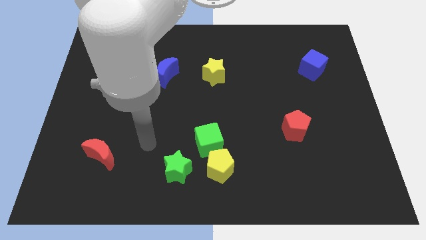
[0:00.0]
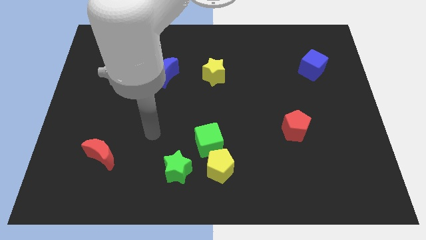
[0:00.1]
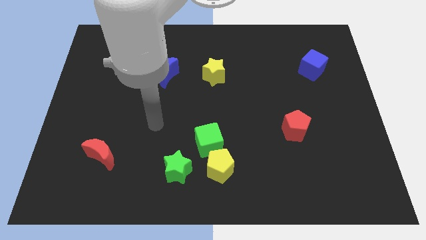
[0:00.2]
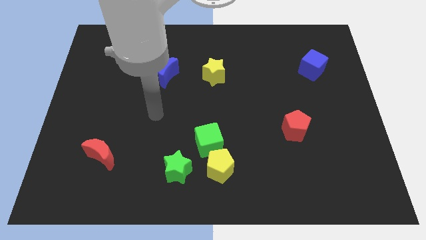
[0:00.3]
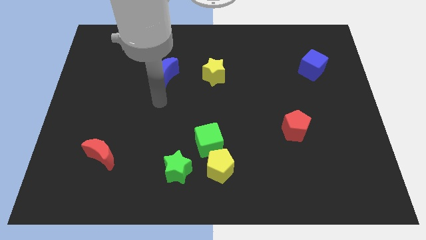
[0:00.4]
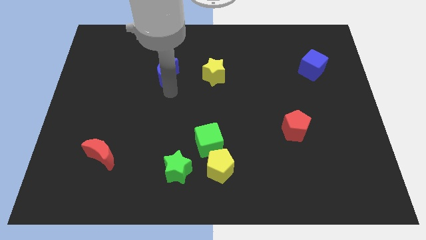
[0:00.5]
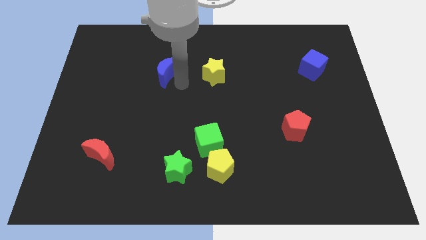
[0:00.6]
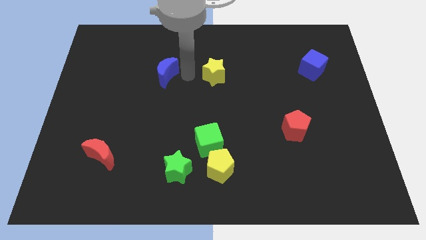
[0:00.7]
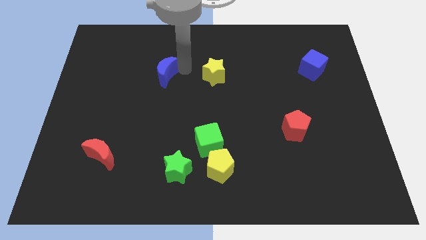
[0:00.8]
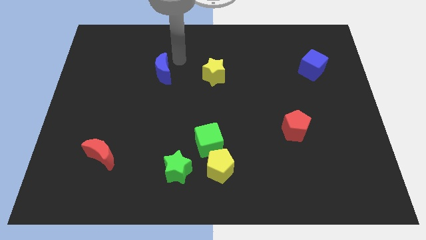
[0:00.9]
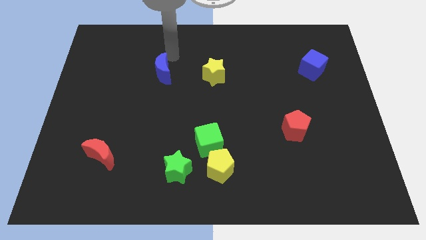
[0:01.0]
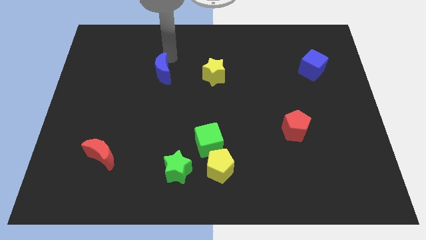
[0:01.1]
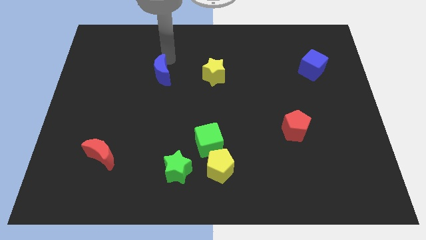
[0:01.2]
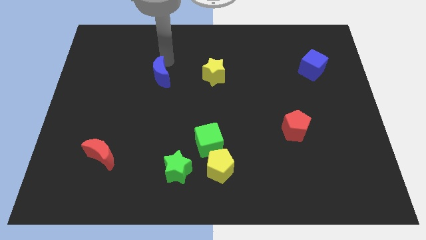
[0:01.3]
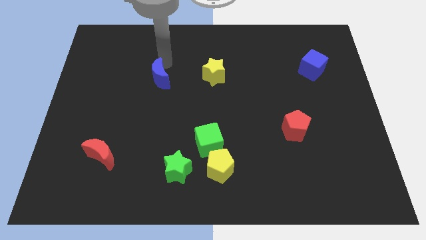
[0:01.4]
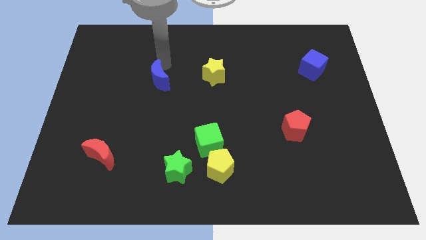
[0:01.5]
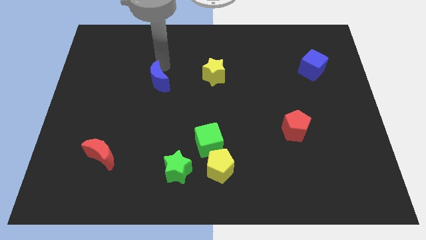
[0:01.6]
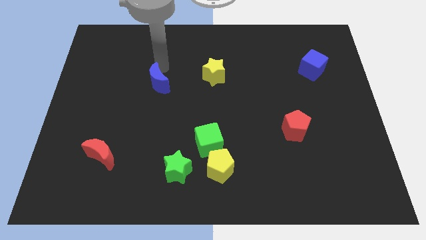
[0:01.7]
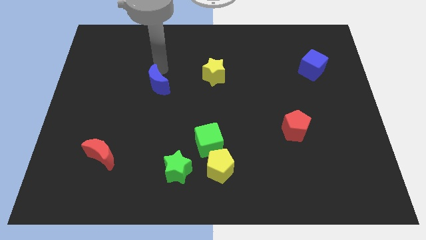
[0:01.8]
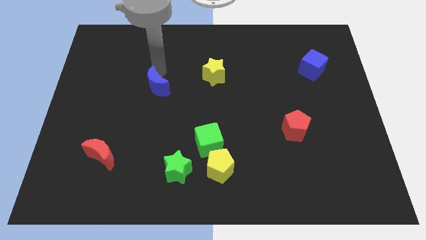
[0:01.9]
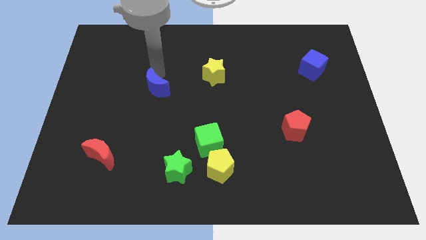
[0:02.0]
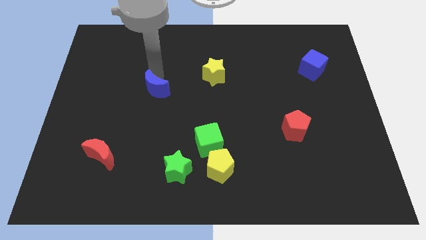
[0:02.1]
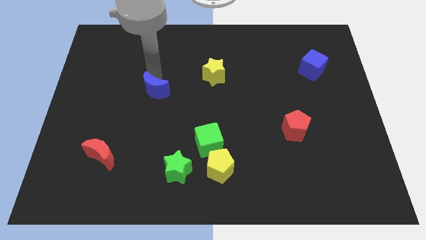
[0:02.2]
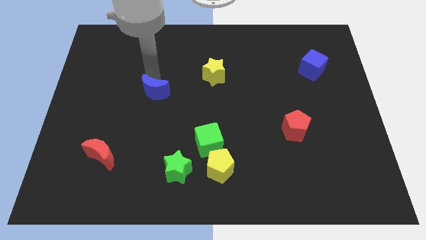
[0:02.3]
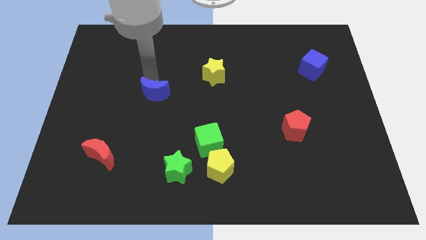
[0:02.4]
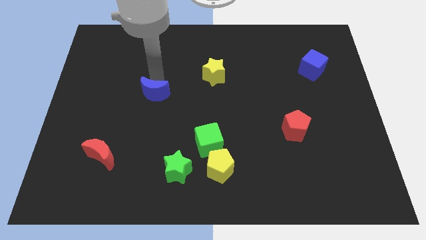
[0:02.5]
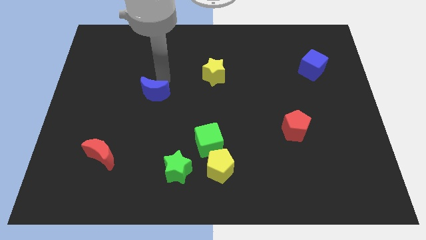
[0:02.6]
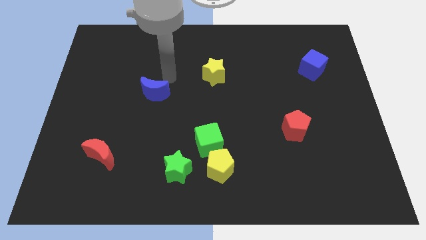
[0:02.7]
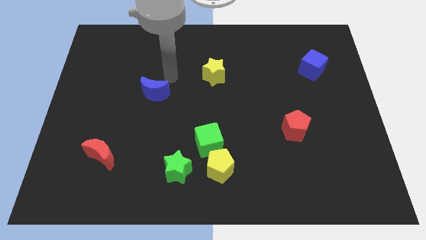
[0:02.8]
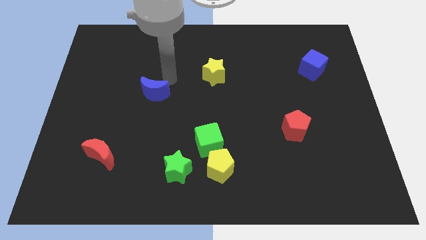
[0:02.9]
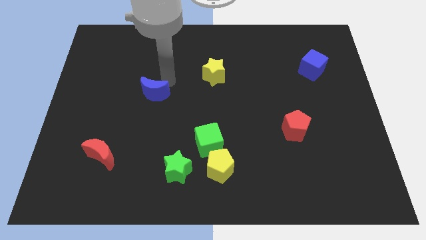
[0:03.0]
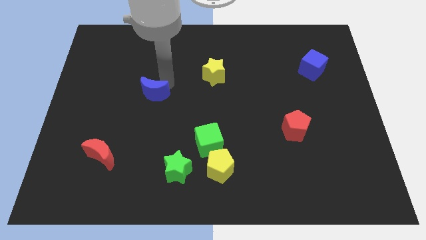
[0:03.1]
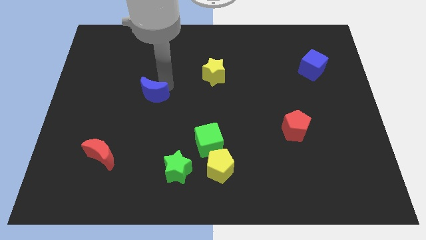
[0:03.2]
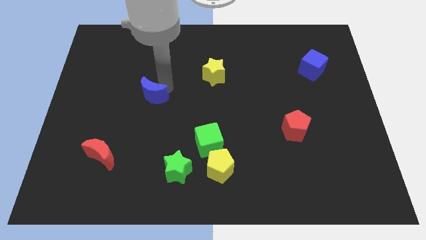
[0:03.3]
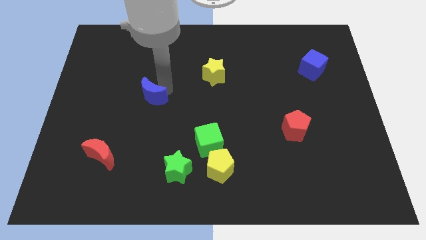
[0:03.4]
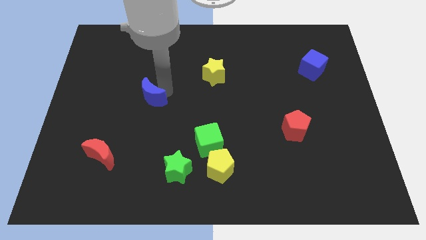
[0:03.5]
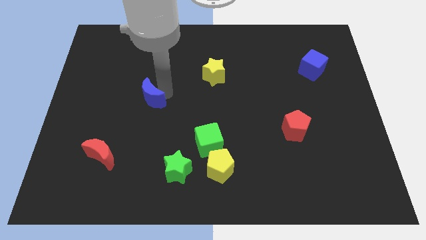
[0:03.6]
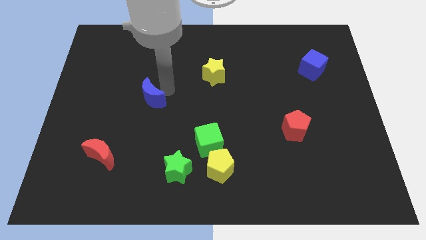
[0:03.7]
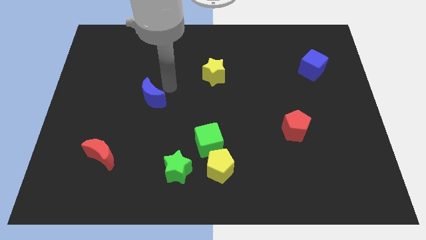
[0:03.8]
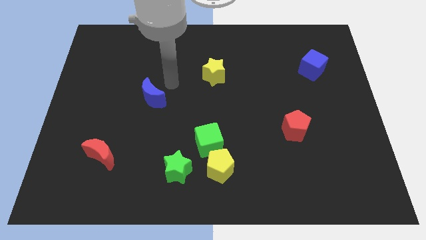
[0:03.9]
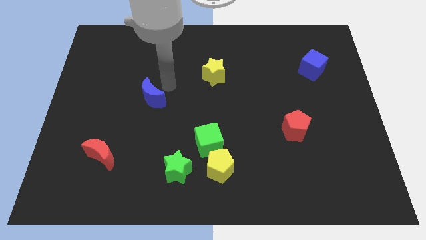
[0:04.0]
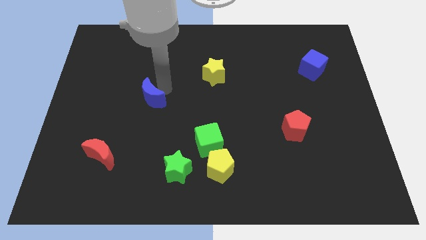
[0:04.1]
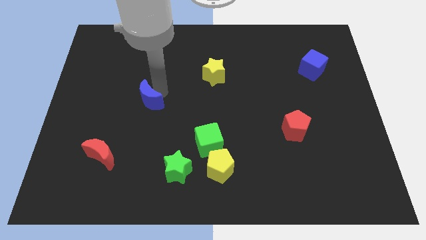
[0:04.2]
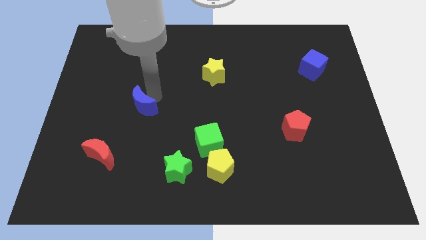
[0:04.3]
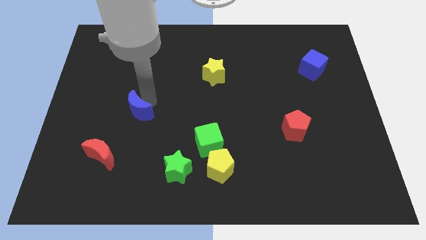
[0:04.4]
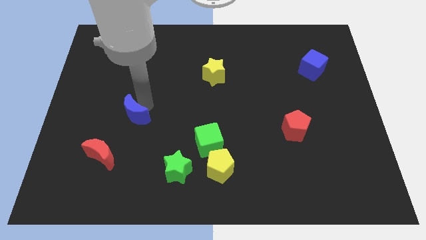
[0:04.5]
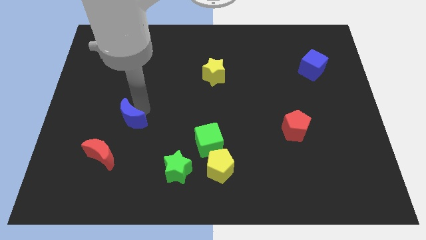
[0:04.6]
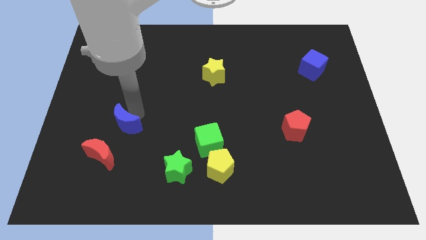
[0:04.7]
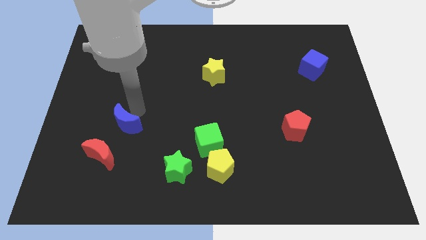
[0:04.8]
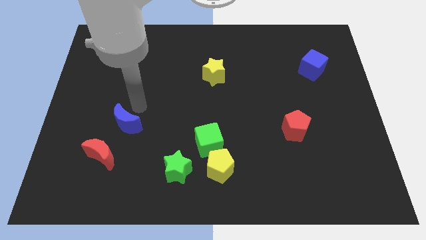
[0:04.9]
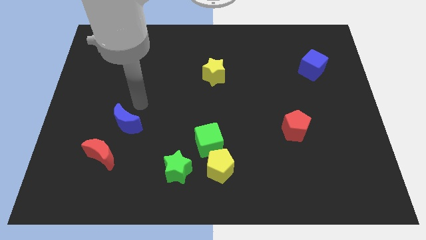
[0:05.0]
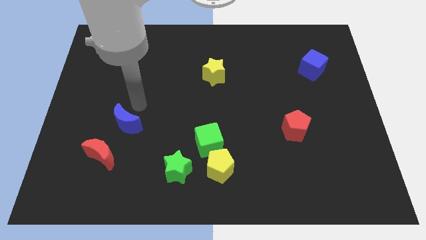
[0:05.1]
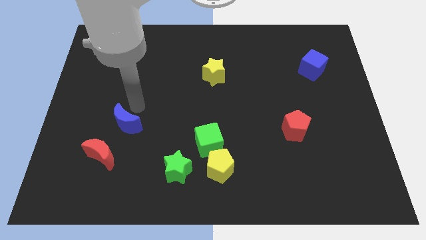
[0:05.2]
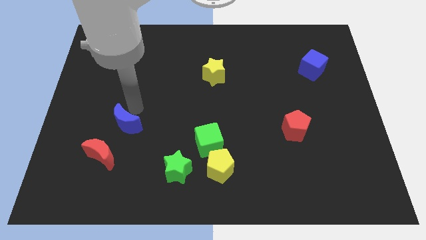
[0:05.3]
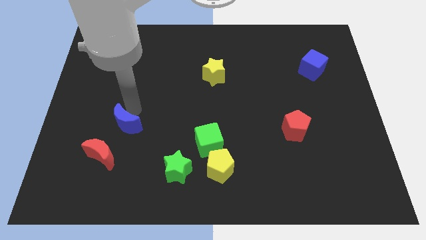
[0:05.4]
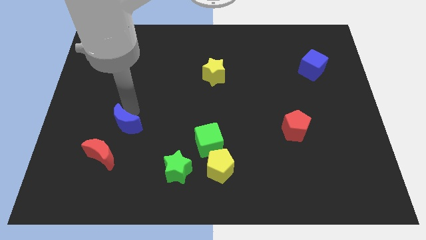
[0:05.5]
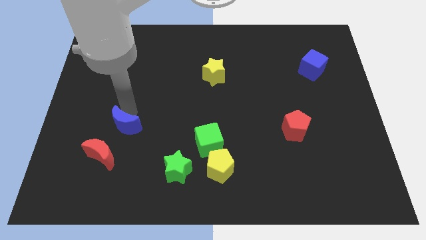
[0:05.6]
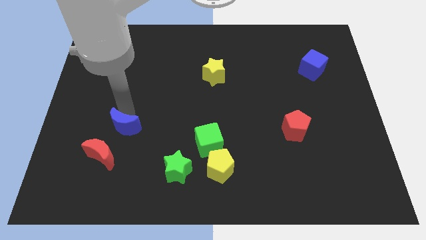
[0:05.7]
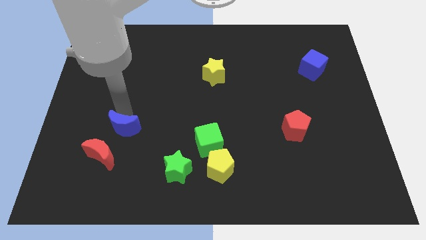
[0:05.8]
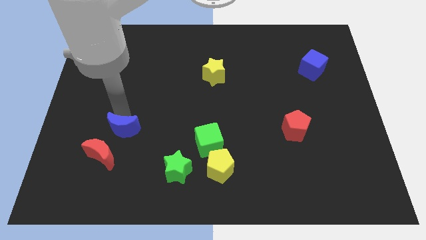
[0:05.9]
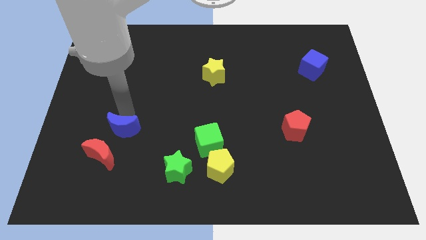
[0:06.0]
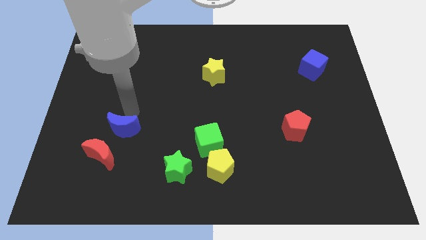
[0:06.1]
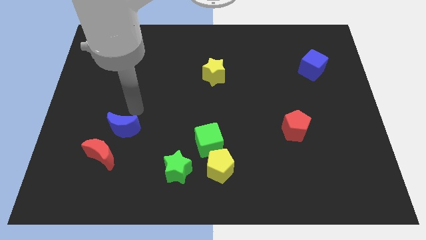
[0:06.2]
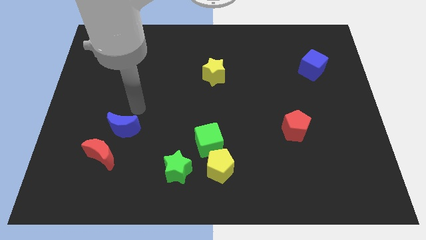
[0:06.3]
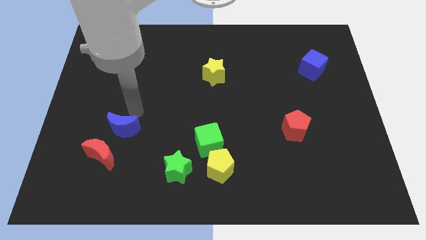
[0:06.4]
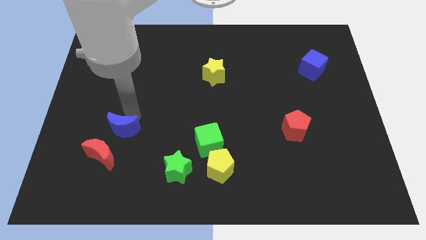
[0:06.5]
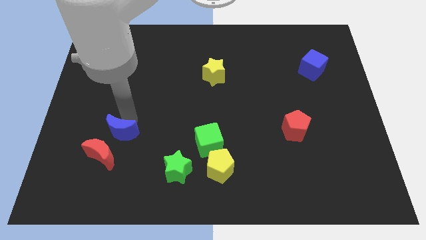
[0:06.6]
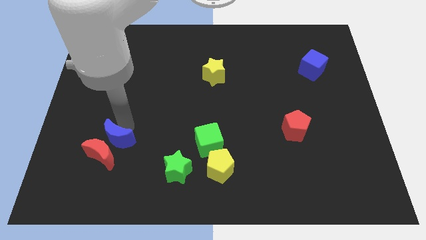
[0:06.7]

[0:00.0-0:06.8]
slide the blue moon to the red moon
